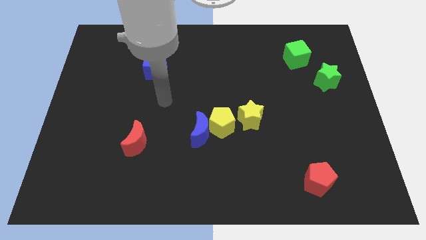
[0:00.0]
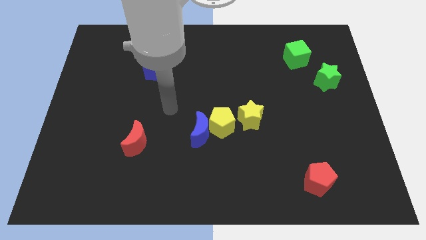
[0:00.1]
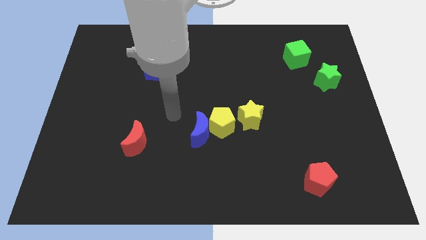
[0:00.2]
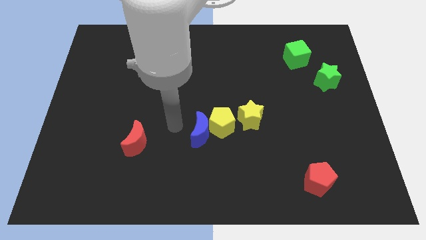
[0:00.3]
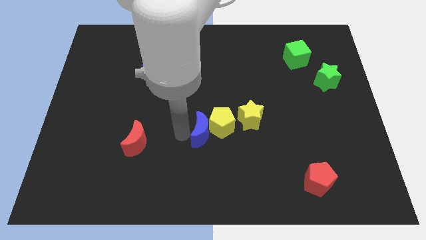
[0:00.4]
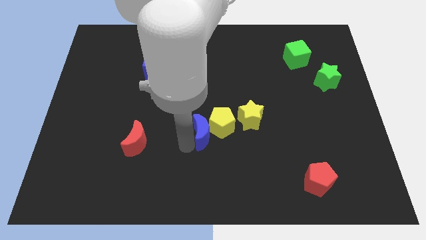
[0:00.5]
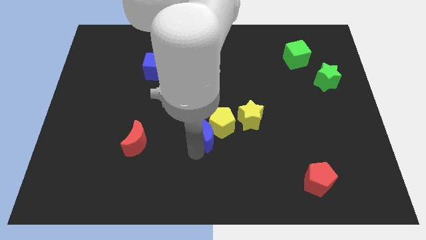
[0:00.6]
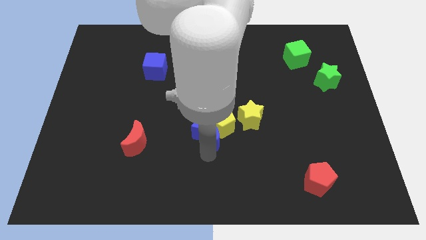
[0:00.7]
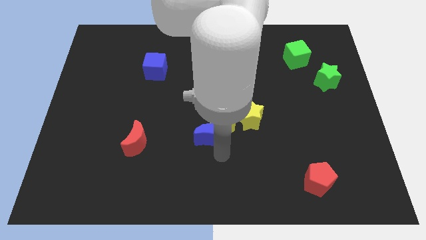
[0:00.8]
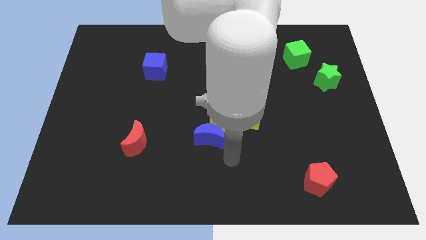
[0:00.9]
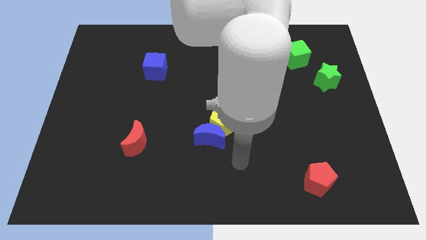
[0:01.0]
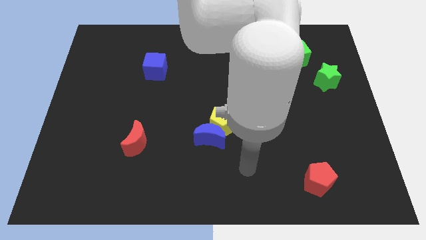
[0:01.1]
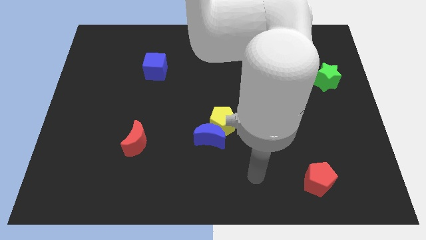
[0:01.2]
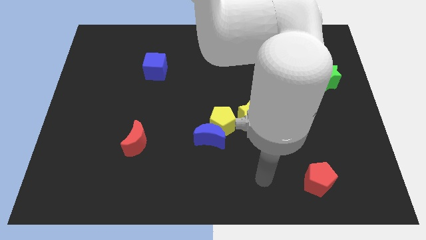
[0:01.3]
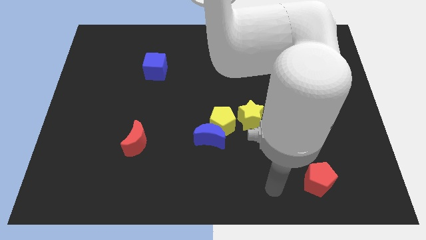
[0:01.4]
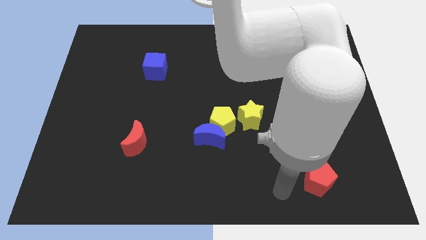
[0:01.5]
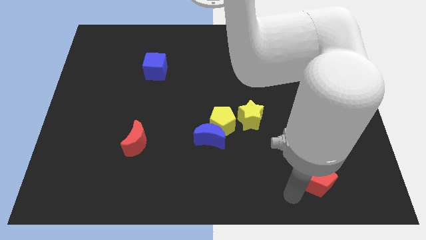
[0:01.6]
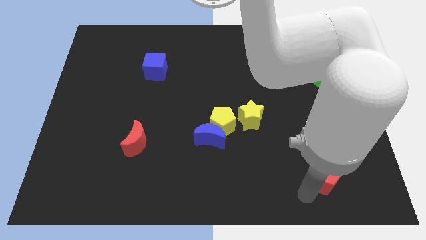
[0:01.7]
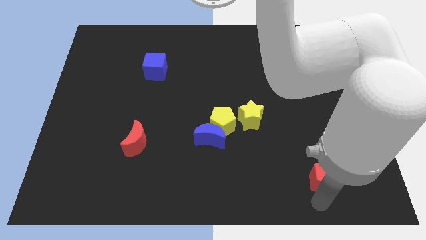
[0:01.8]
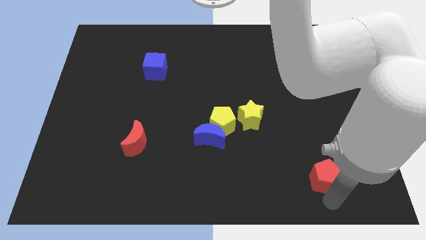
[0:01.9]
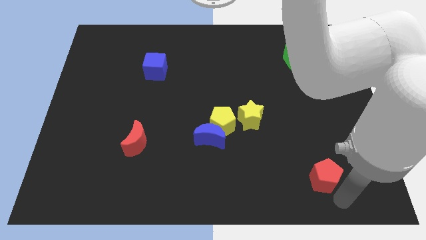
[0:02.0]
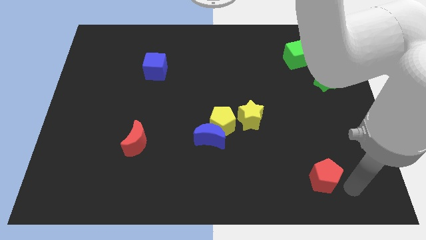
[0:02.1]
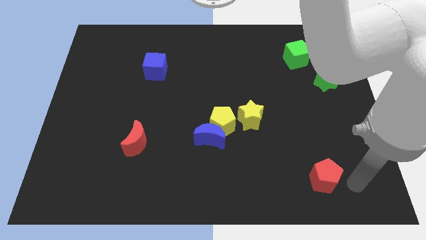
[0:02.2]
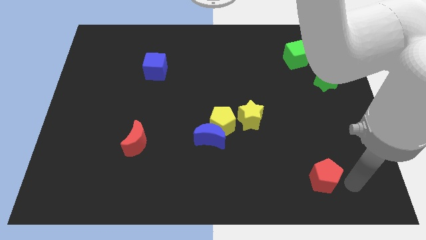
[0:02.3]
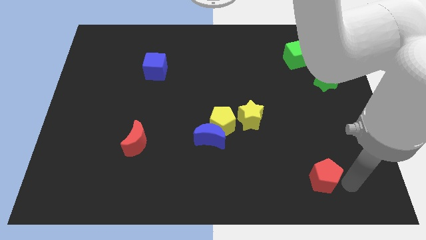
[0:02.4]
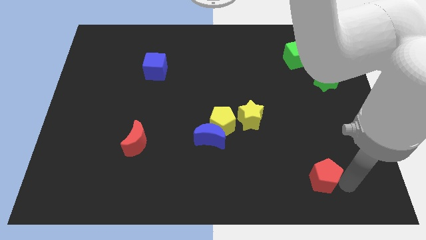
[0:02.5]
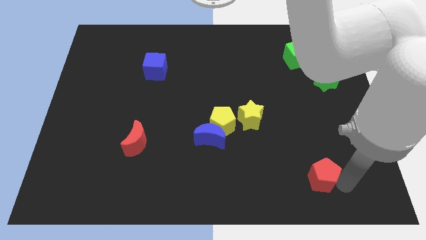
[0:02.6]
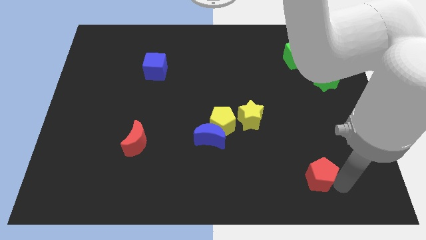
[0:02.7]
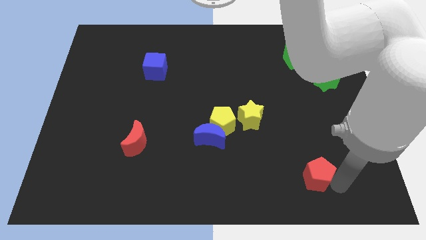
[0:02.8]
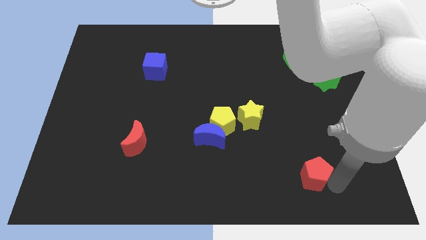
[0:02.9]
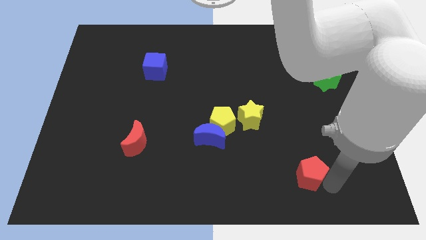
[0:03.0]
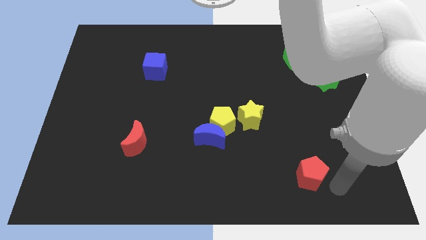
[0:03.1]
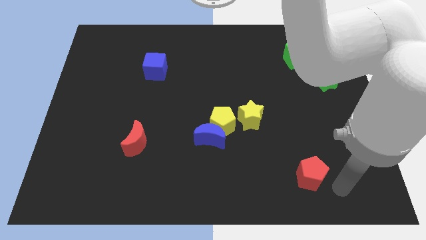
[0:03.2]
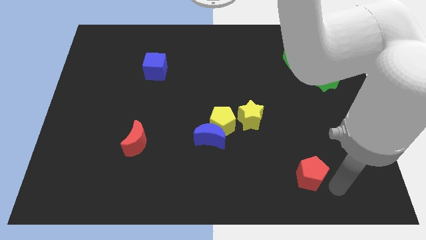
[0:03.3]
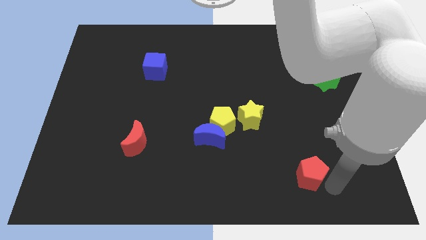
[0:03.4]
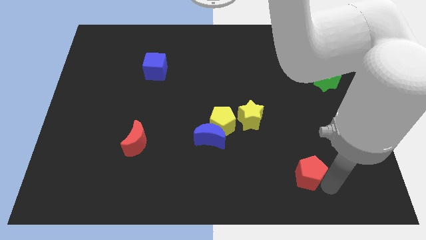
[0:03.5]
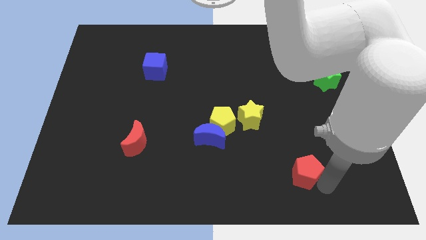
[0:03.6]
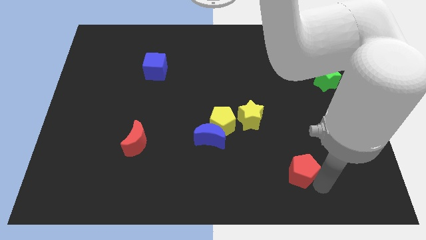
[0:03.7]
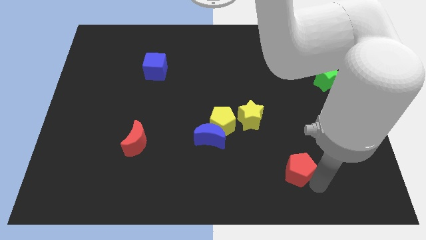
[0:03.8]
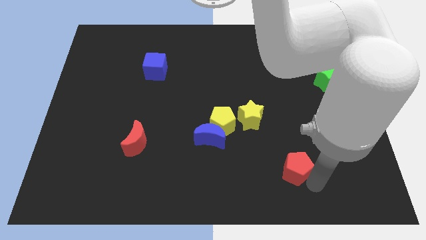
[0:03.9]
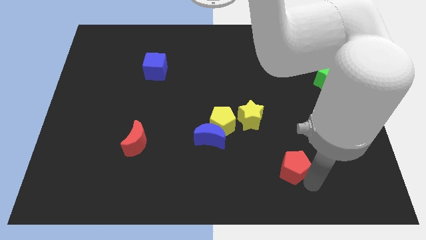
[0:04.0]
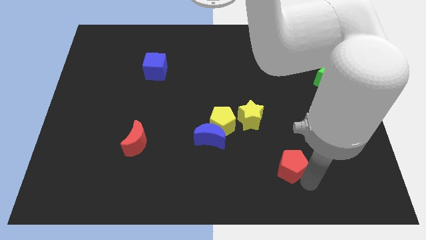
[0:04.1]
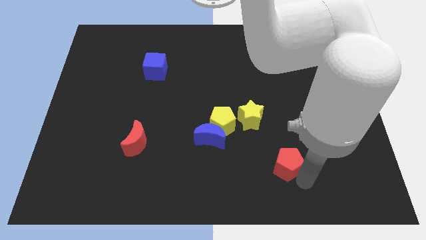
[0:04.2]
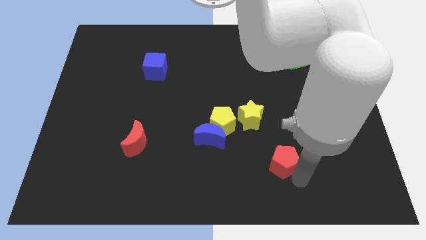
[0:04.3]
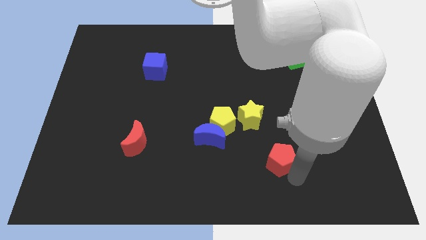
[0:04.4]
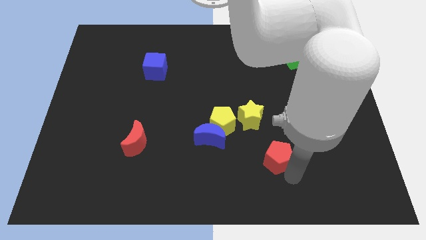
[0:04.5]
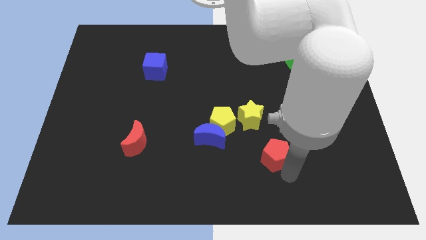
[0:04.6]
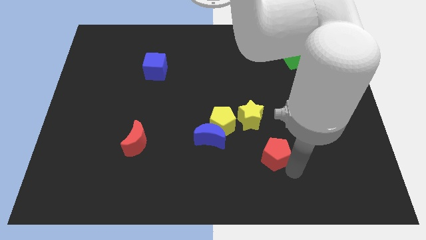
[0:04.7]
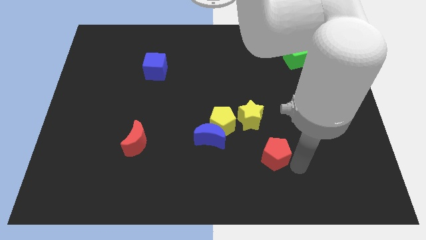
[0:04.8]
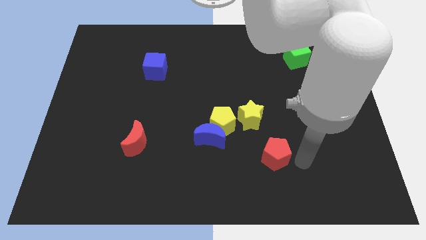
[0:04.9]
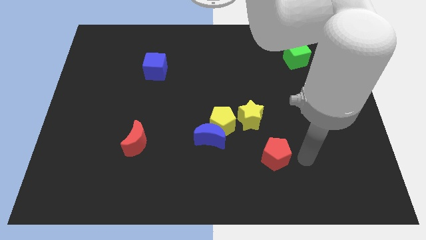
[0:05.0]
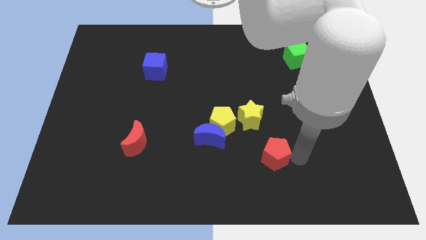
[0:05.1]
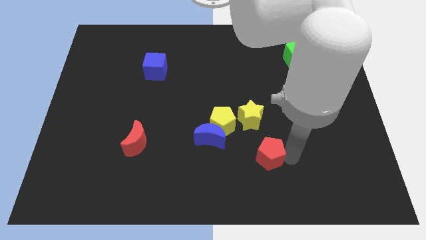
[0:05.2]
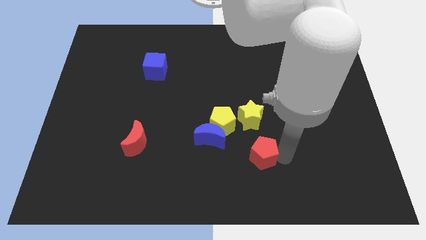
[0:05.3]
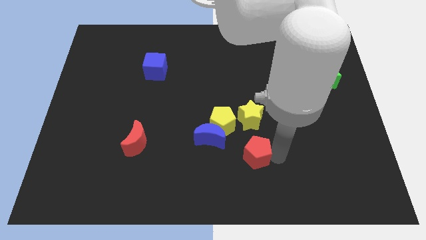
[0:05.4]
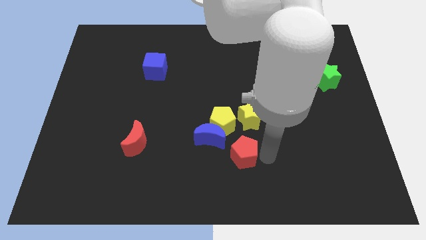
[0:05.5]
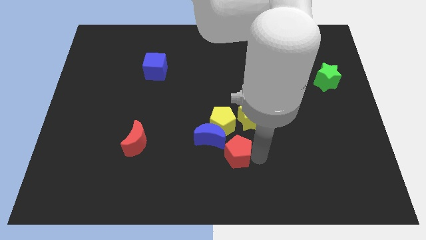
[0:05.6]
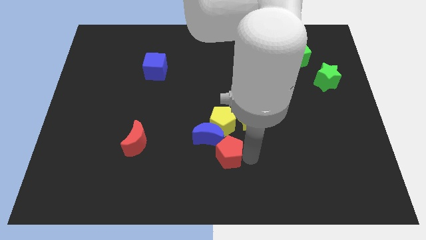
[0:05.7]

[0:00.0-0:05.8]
push the red pentagon towards the blue moon

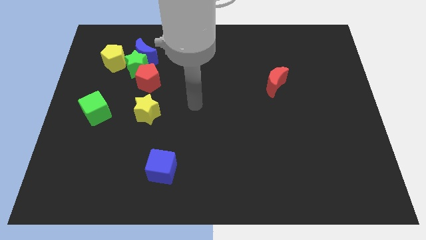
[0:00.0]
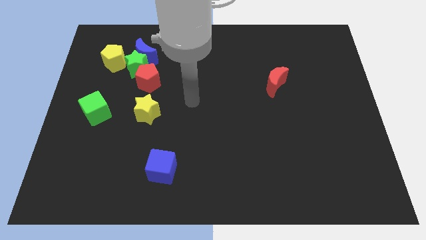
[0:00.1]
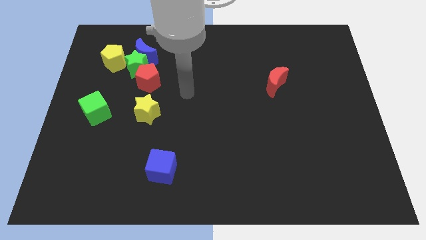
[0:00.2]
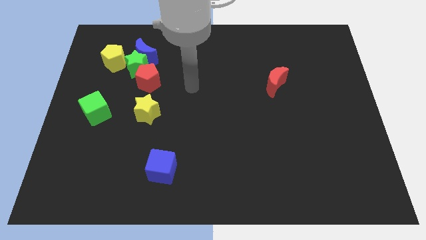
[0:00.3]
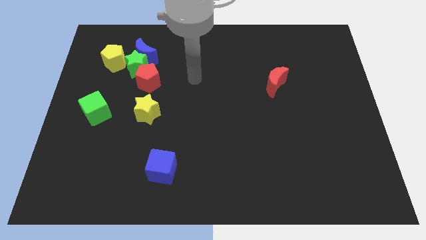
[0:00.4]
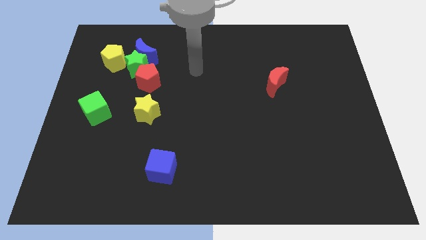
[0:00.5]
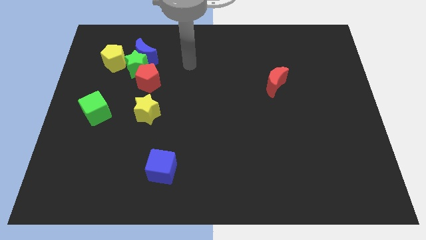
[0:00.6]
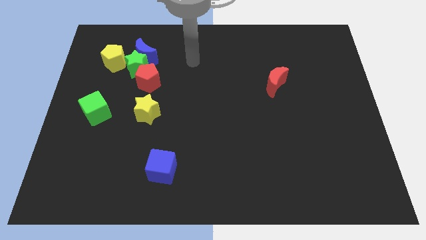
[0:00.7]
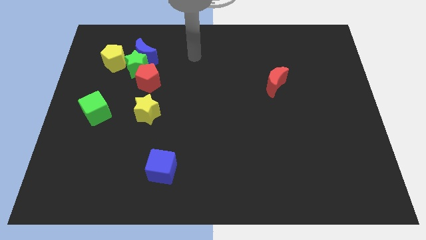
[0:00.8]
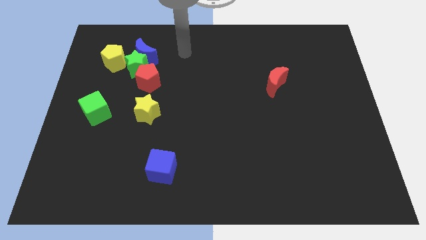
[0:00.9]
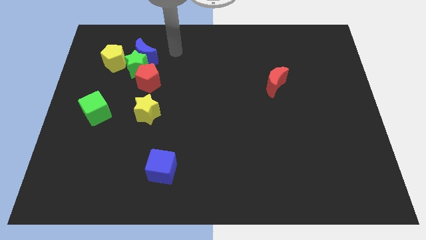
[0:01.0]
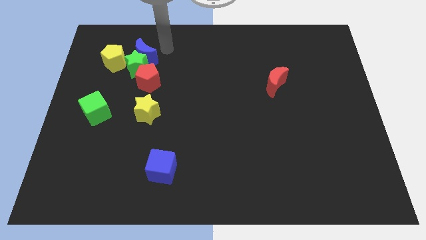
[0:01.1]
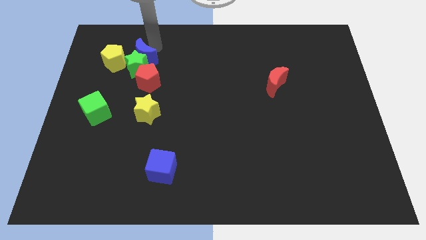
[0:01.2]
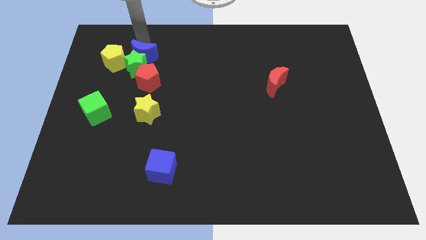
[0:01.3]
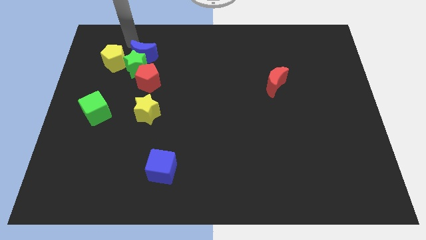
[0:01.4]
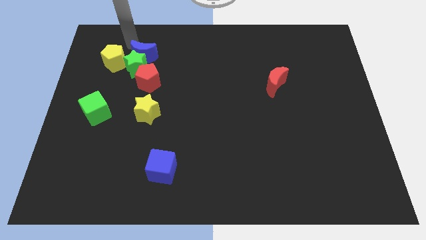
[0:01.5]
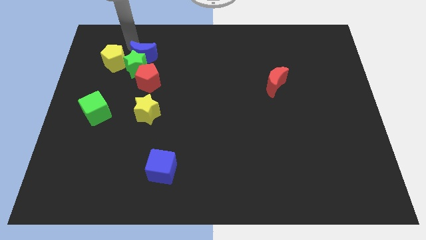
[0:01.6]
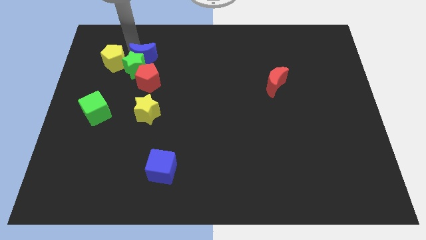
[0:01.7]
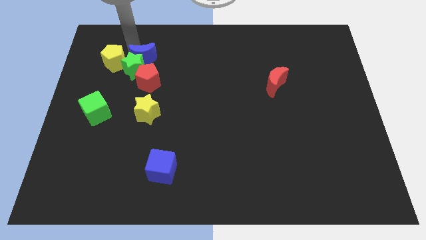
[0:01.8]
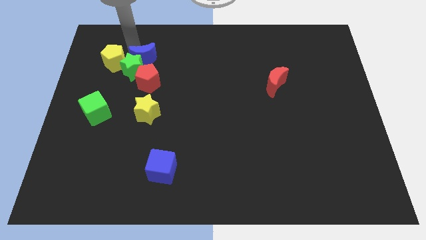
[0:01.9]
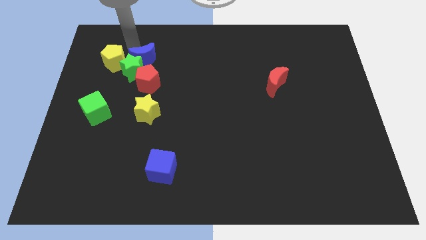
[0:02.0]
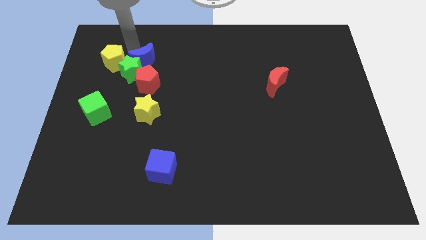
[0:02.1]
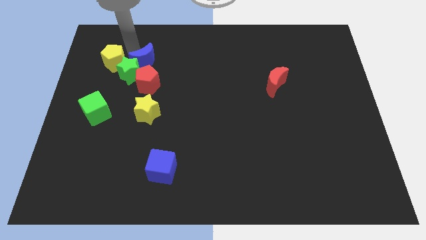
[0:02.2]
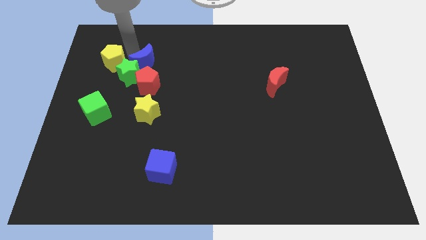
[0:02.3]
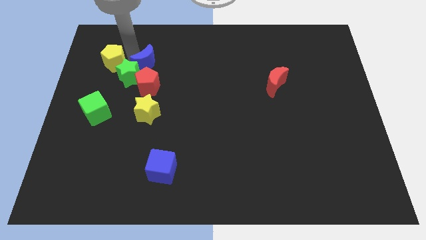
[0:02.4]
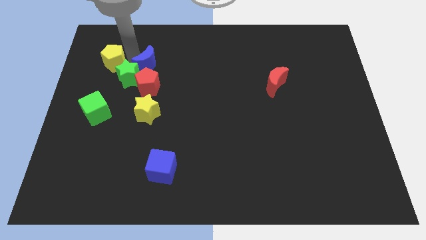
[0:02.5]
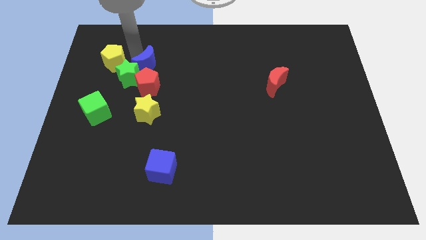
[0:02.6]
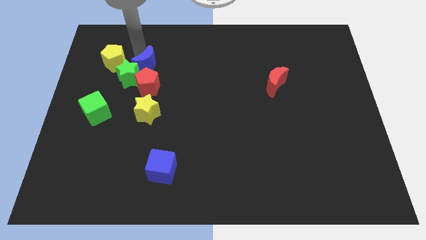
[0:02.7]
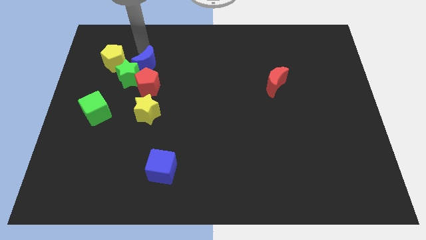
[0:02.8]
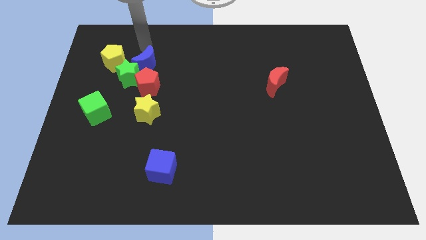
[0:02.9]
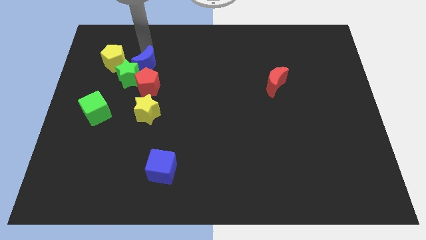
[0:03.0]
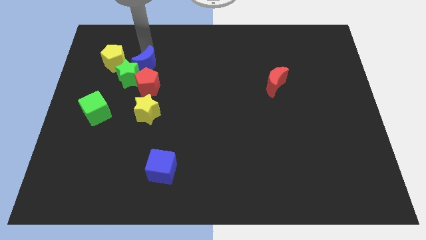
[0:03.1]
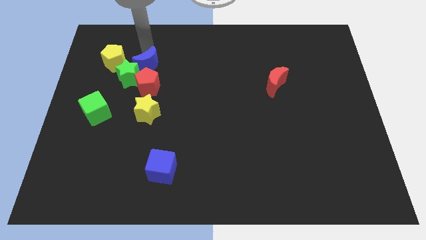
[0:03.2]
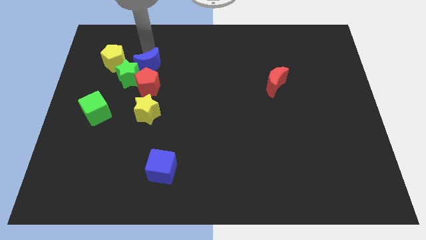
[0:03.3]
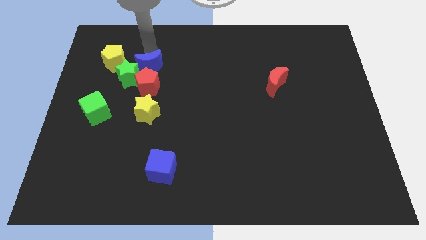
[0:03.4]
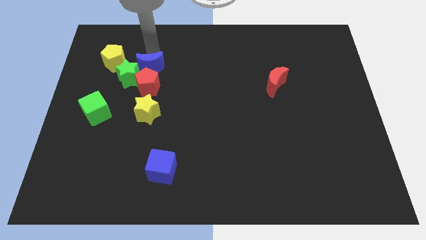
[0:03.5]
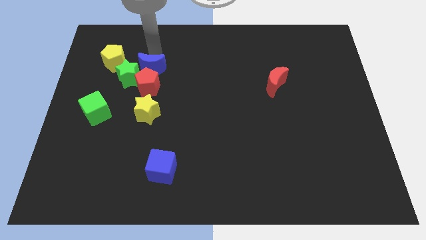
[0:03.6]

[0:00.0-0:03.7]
slide the blue moon to the red pentagon
